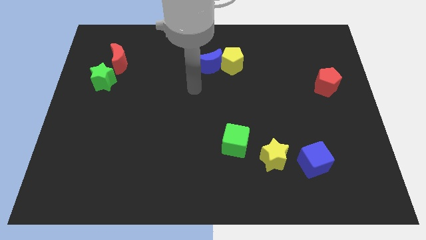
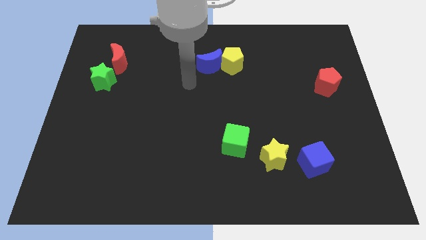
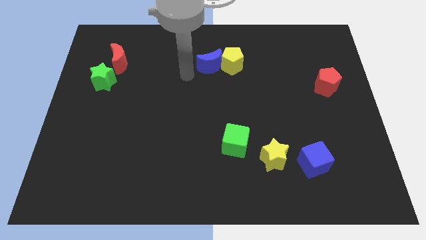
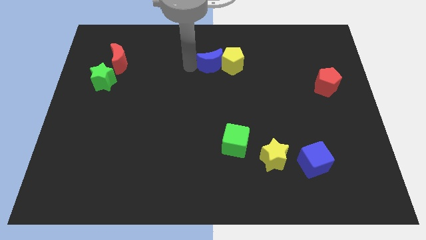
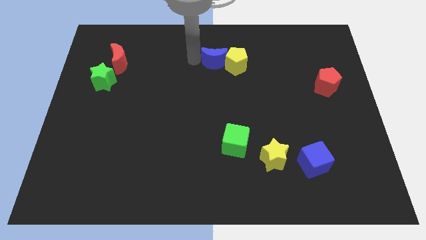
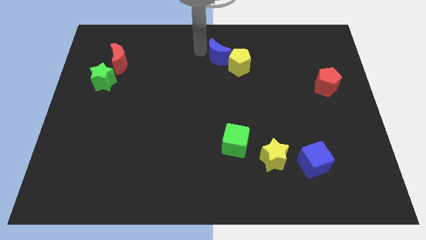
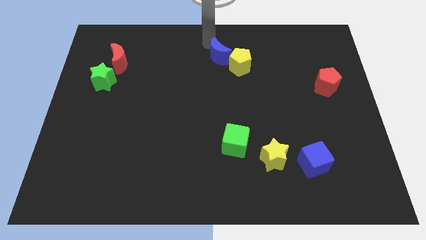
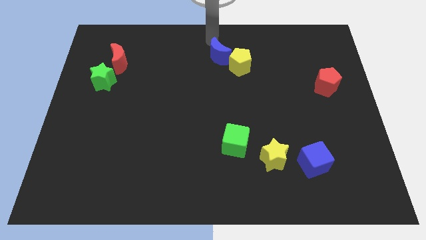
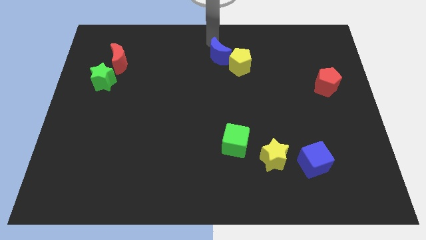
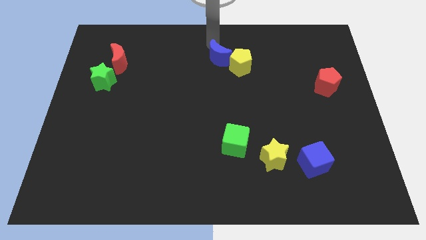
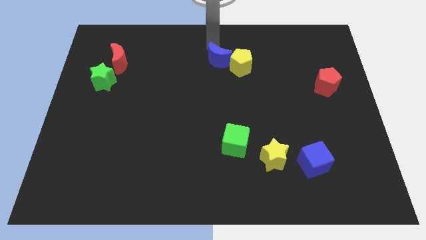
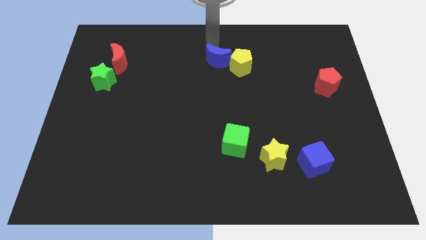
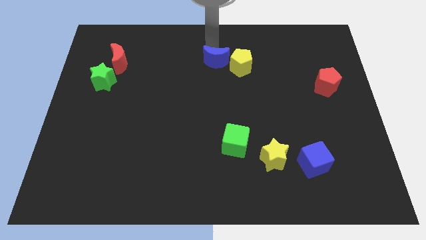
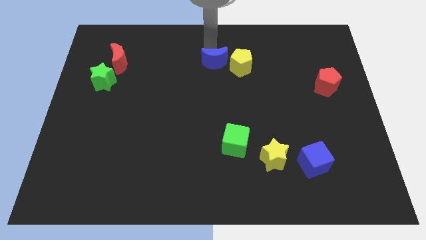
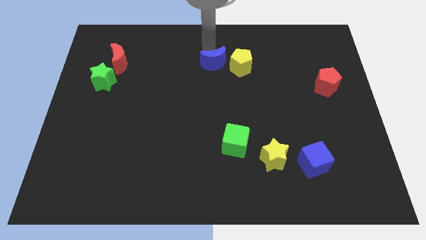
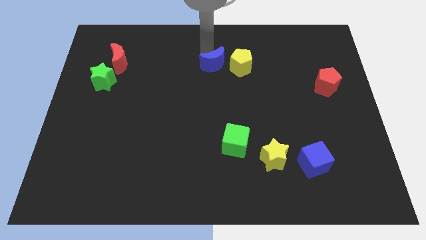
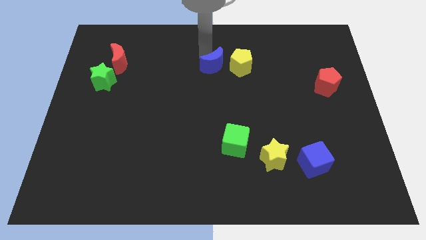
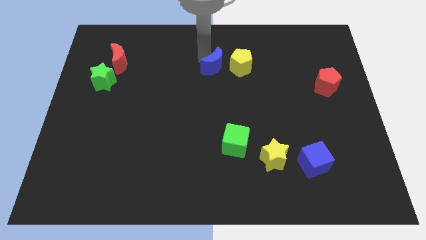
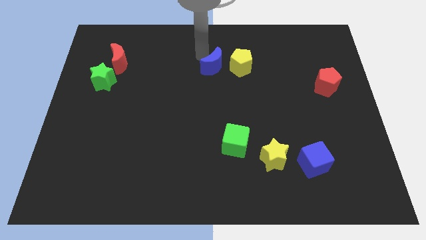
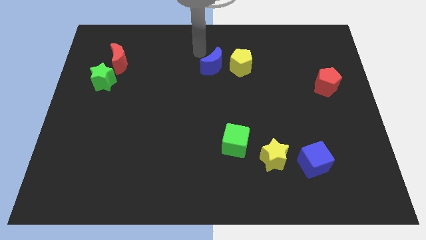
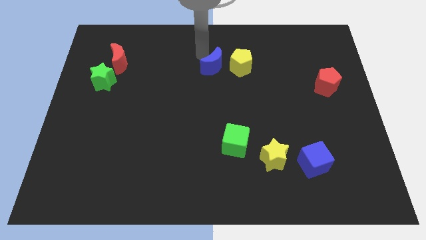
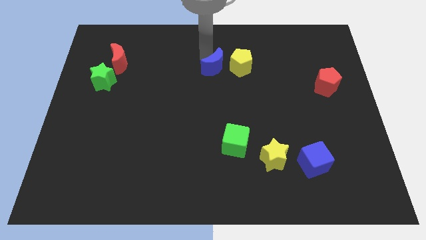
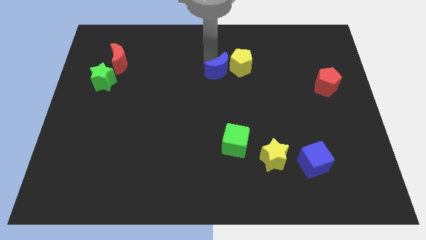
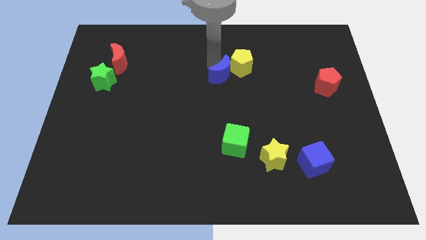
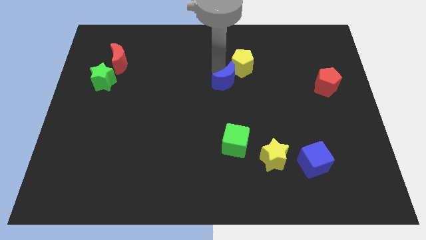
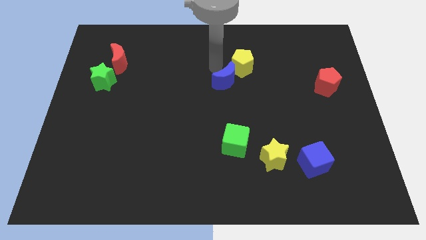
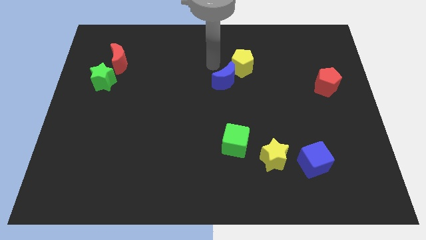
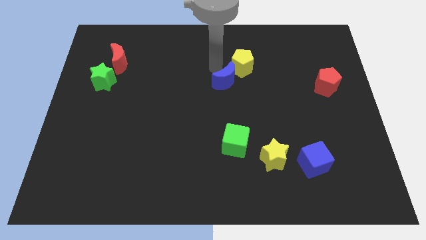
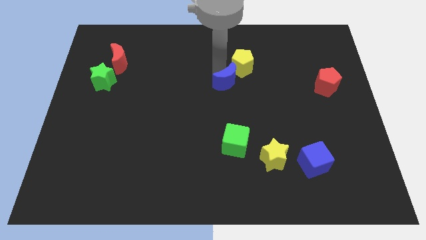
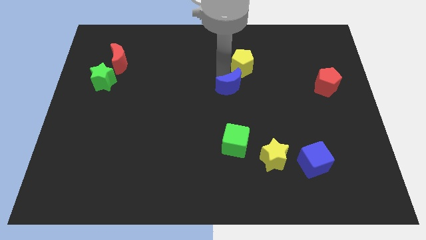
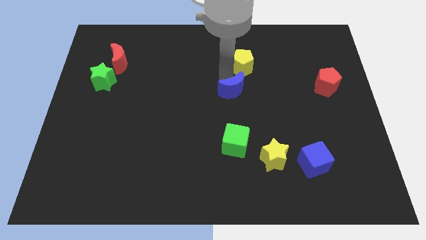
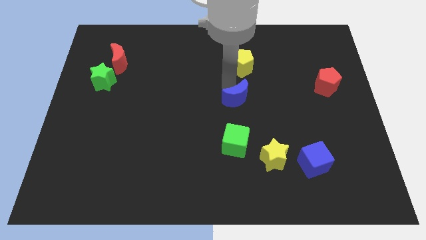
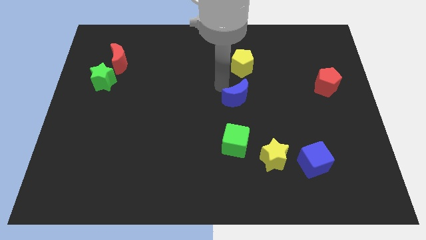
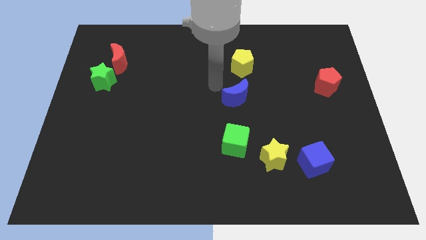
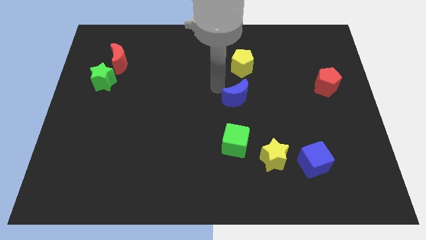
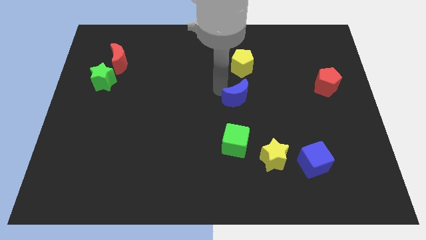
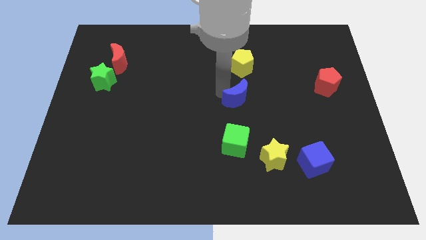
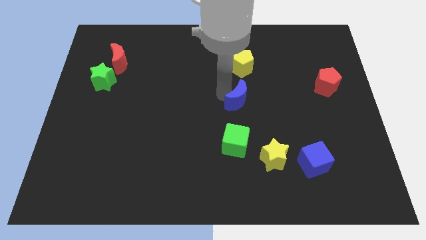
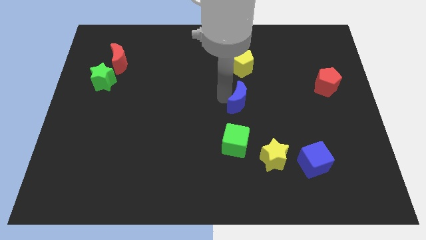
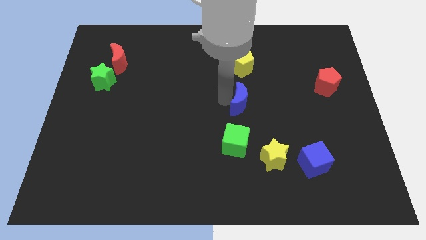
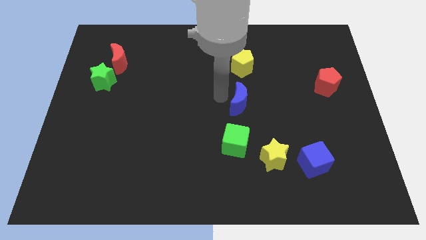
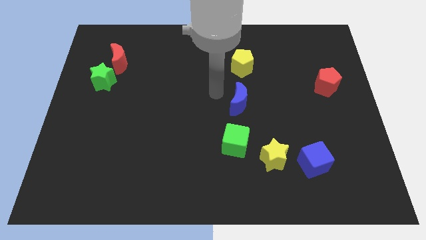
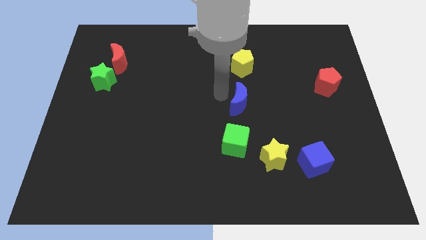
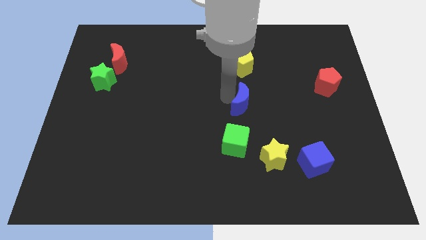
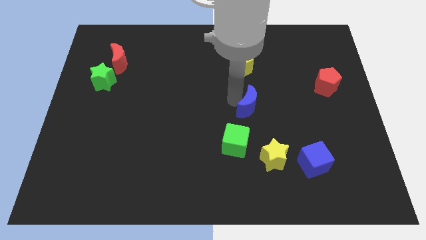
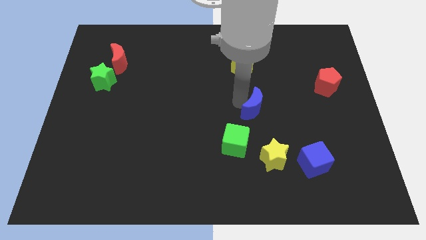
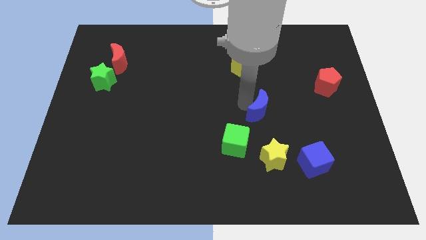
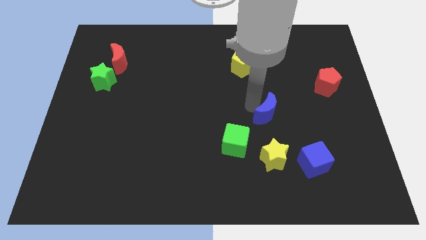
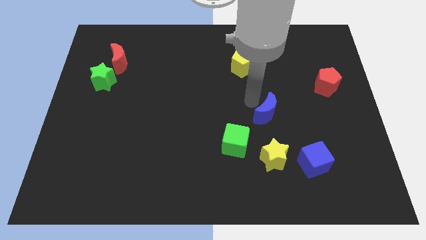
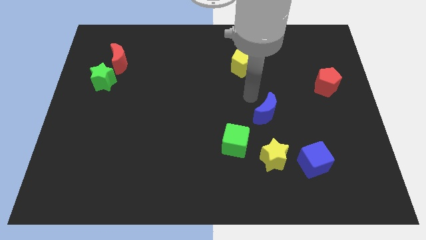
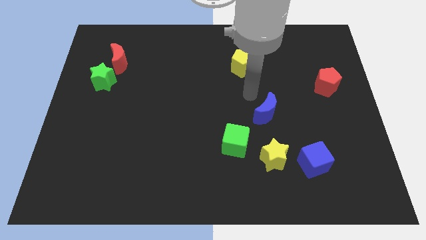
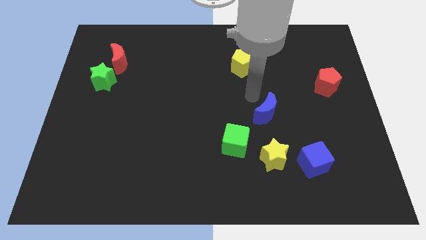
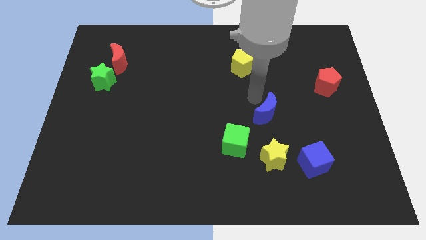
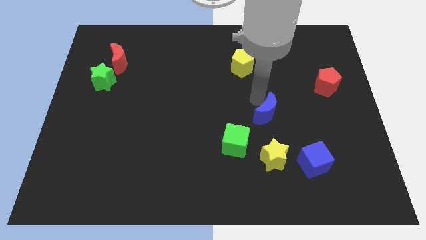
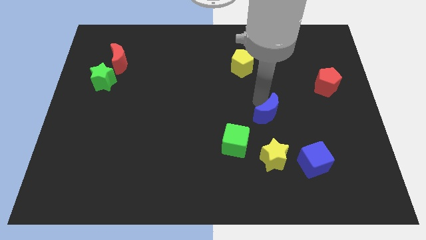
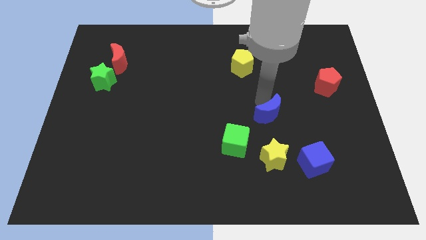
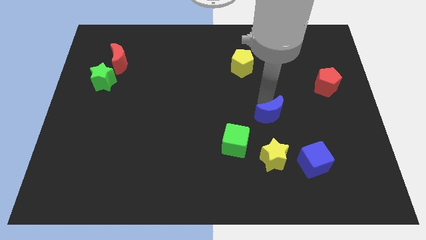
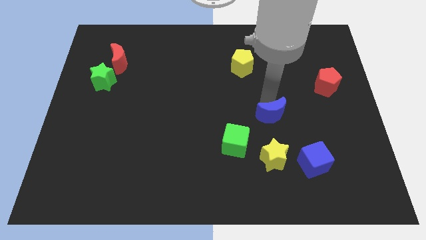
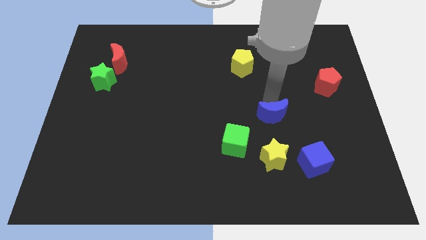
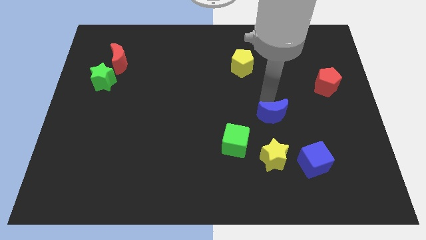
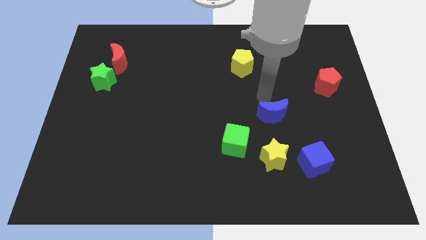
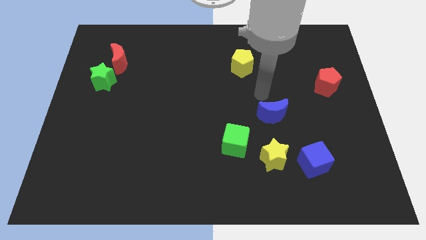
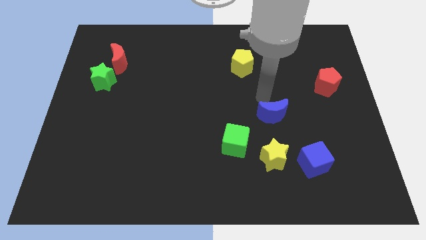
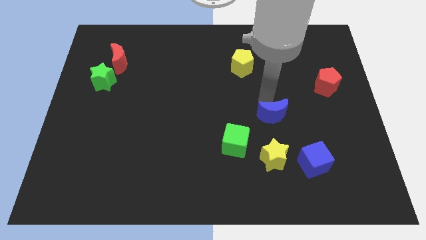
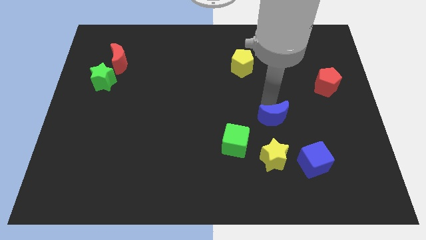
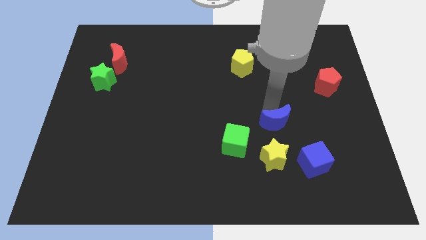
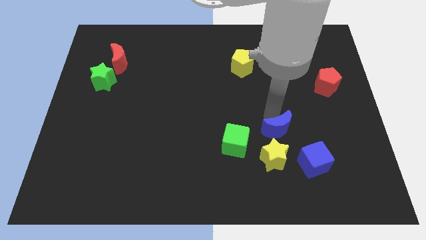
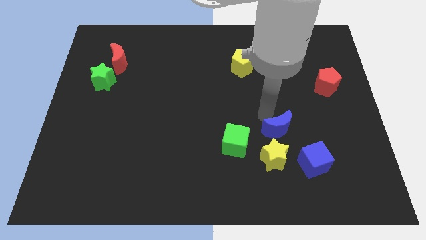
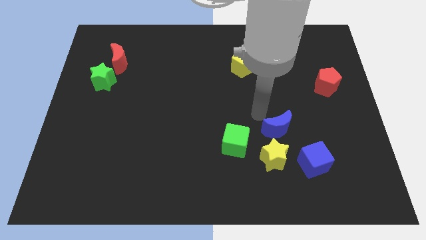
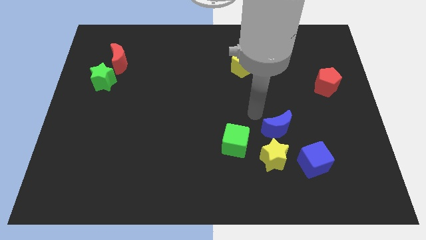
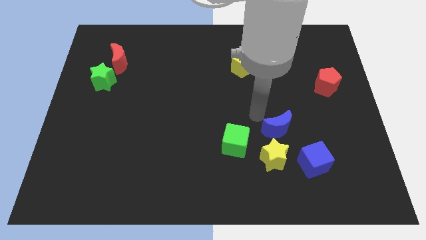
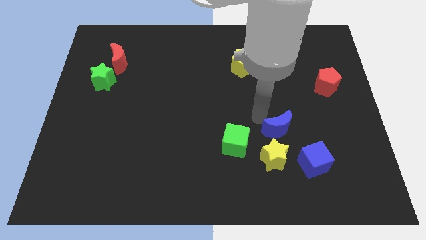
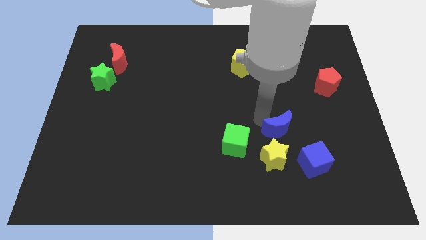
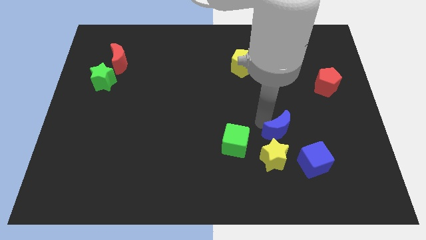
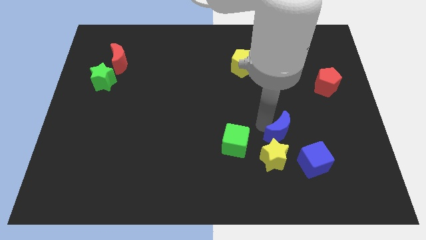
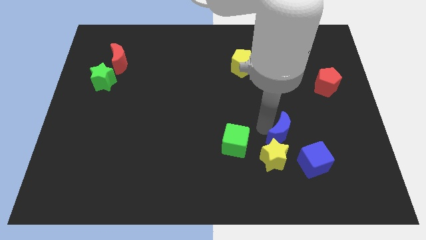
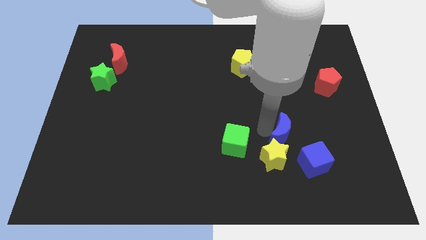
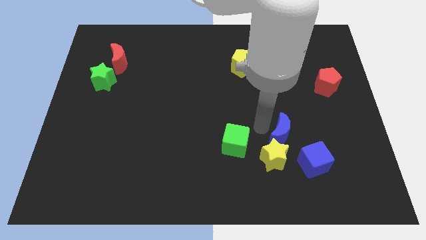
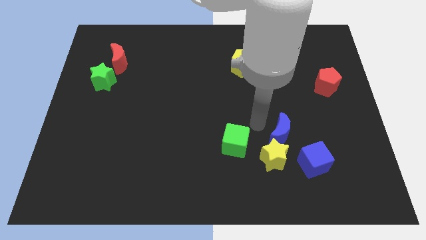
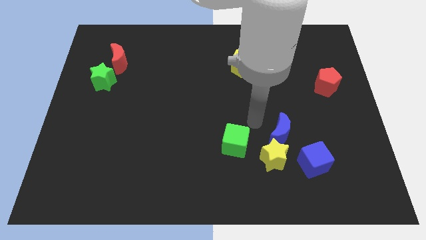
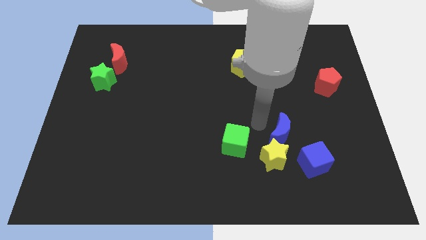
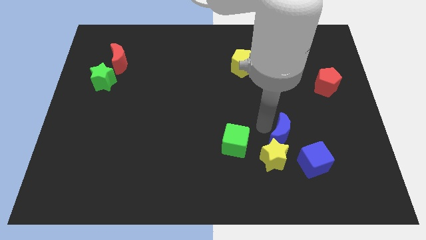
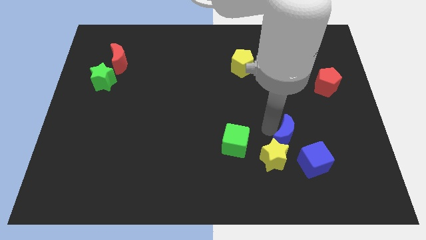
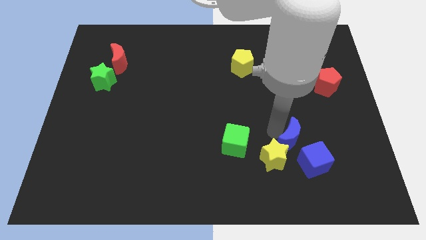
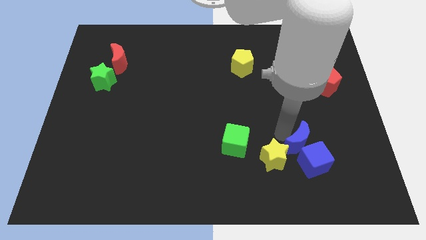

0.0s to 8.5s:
slide the blue moon next to the blue cube
